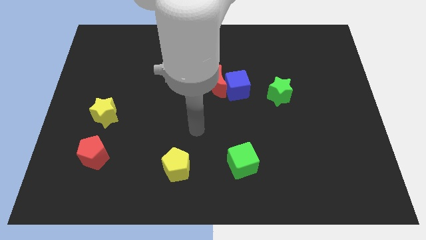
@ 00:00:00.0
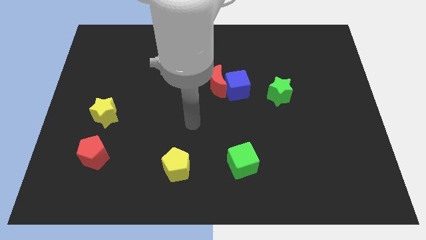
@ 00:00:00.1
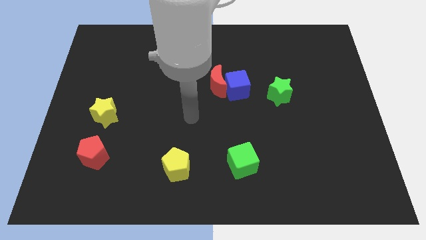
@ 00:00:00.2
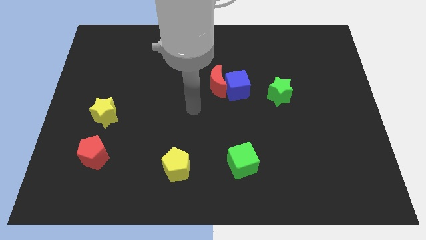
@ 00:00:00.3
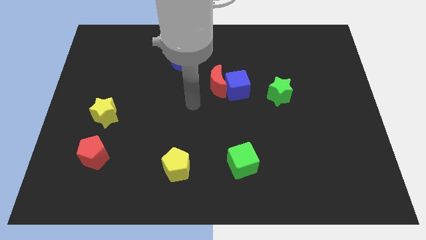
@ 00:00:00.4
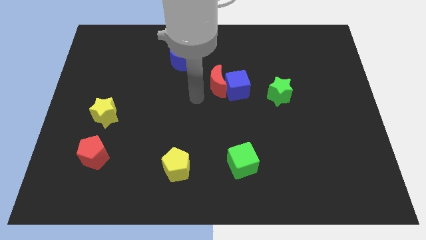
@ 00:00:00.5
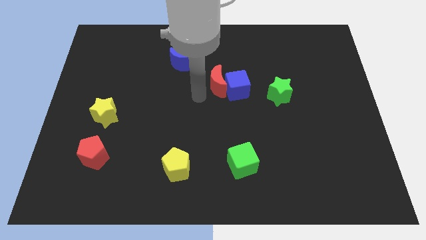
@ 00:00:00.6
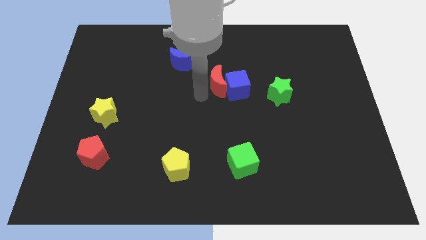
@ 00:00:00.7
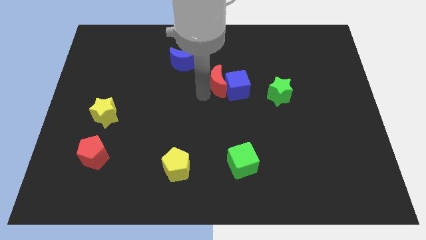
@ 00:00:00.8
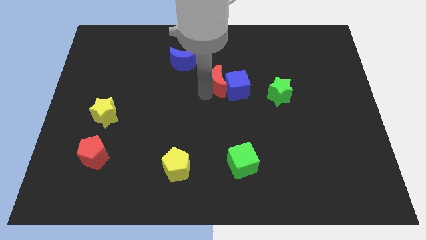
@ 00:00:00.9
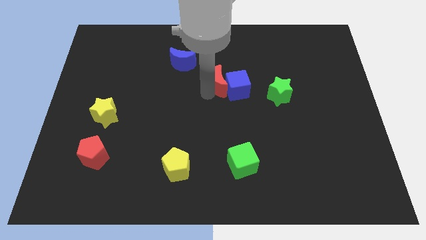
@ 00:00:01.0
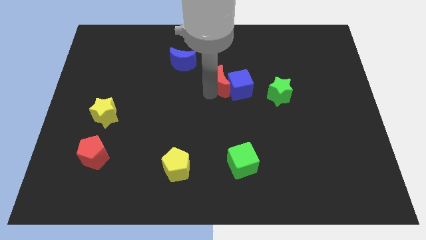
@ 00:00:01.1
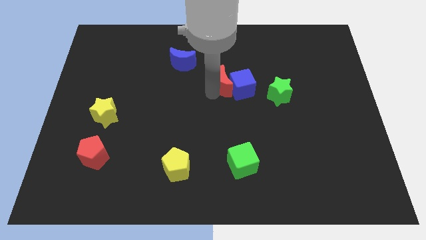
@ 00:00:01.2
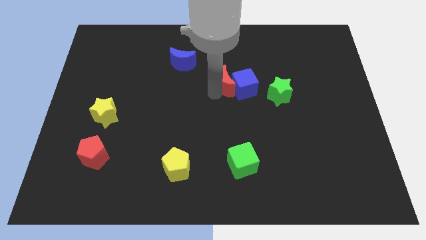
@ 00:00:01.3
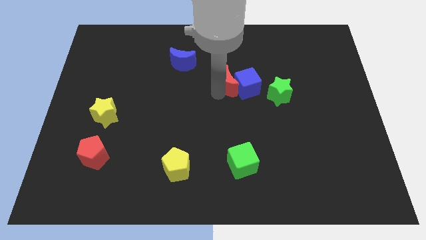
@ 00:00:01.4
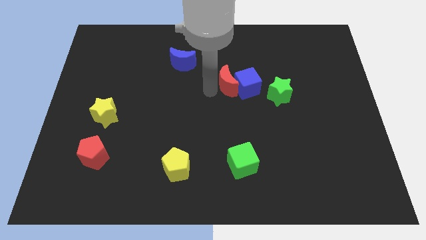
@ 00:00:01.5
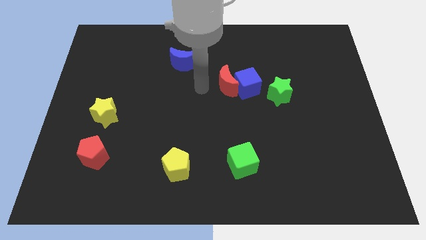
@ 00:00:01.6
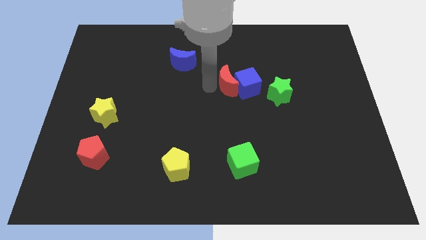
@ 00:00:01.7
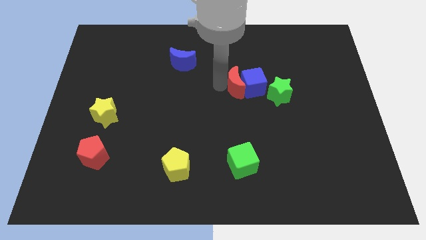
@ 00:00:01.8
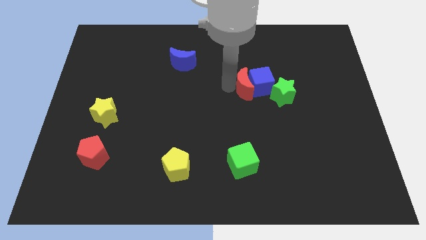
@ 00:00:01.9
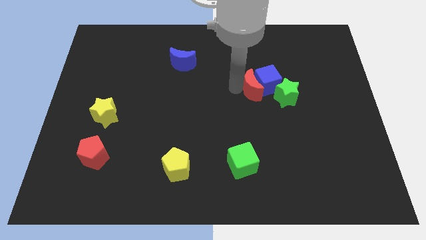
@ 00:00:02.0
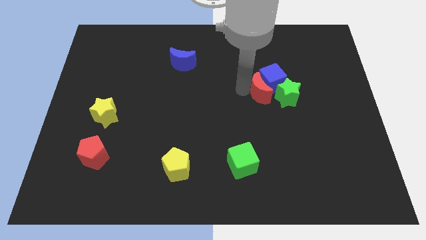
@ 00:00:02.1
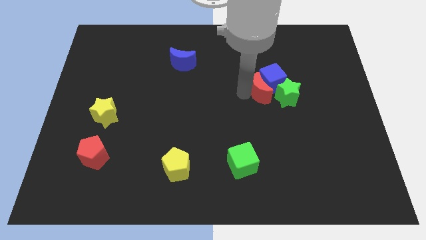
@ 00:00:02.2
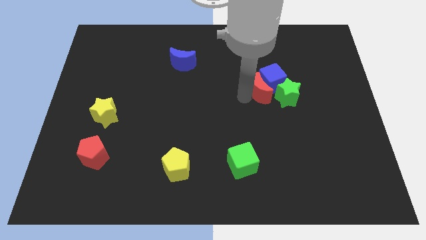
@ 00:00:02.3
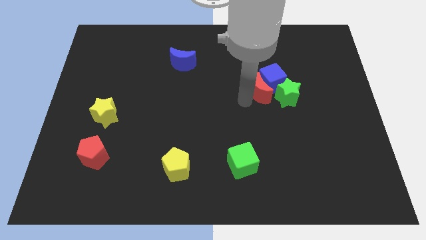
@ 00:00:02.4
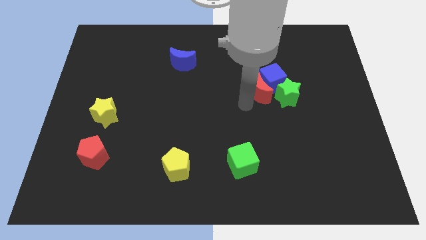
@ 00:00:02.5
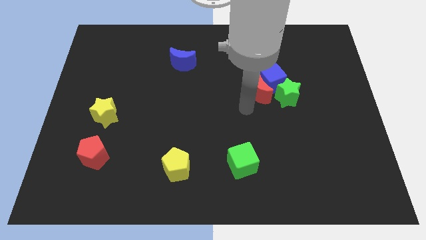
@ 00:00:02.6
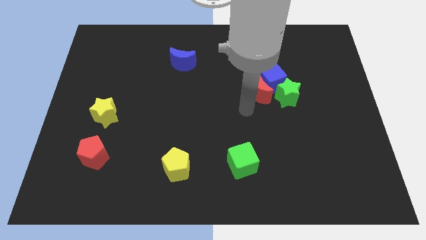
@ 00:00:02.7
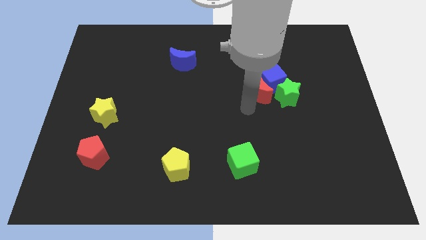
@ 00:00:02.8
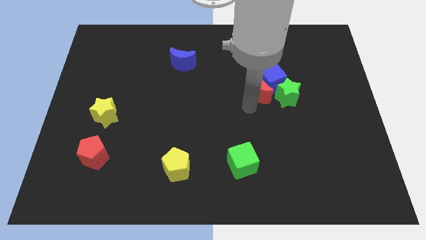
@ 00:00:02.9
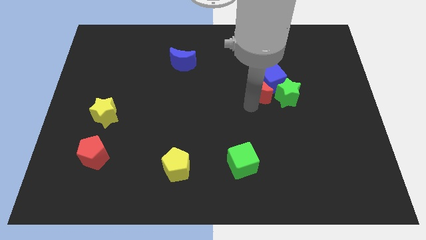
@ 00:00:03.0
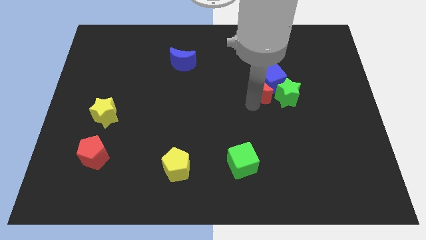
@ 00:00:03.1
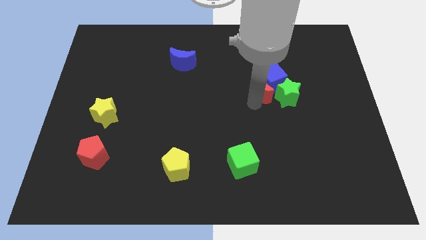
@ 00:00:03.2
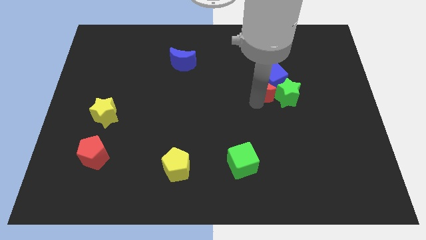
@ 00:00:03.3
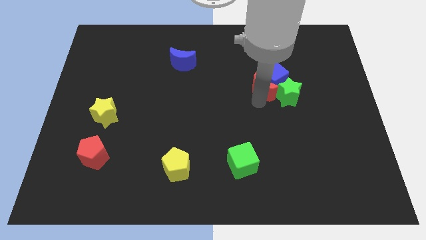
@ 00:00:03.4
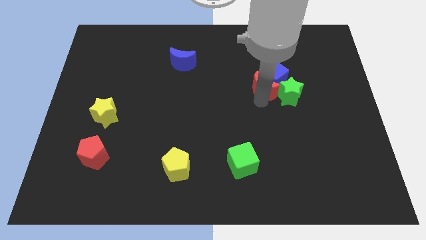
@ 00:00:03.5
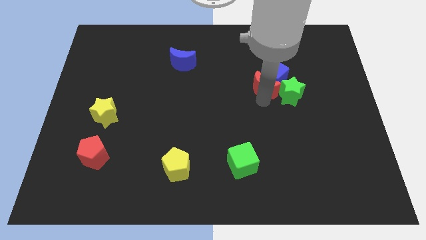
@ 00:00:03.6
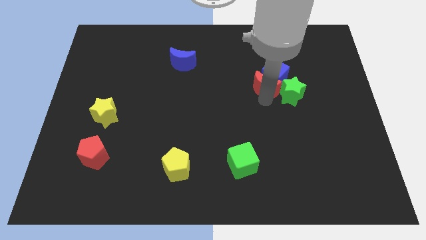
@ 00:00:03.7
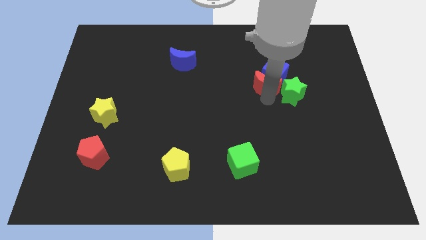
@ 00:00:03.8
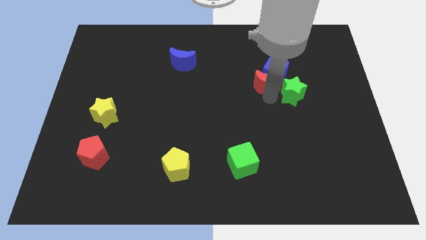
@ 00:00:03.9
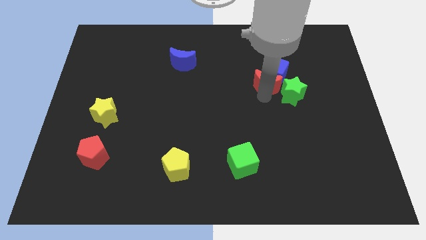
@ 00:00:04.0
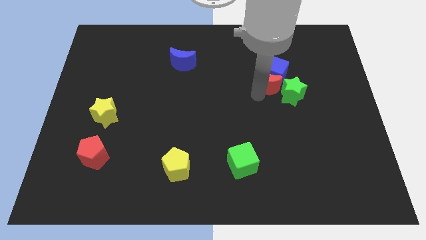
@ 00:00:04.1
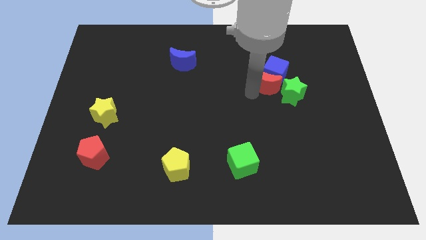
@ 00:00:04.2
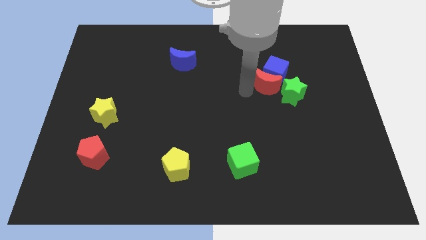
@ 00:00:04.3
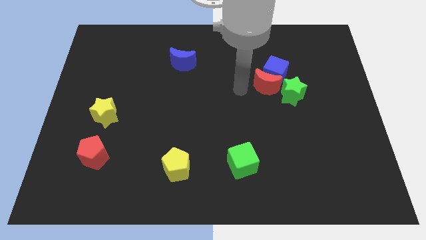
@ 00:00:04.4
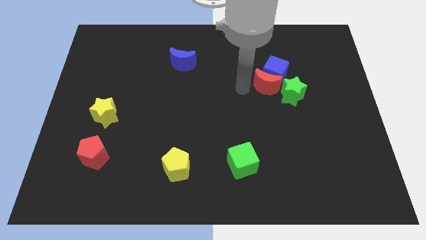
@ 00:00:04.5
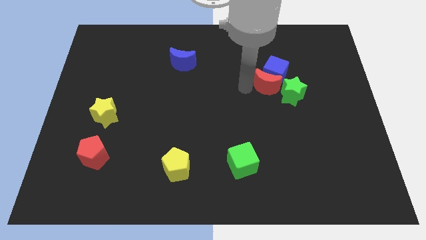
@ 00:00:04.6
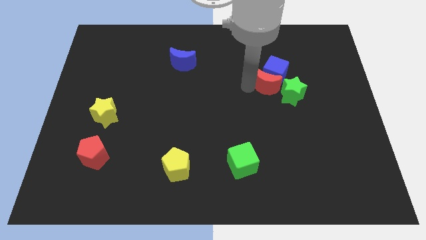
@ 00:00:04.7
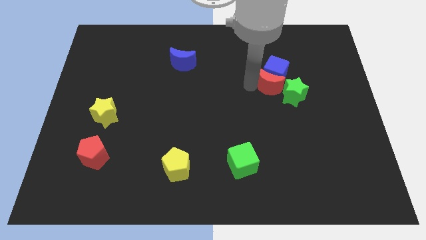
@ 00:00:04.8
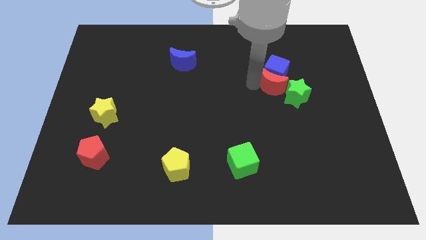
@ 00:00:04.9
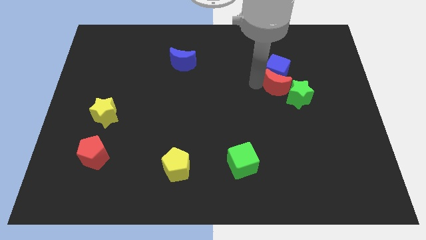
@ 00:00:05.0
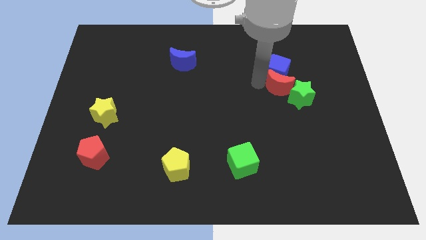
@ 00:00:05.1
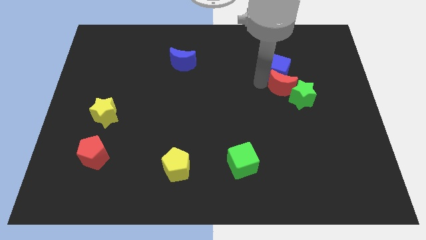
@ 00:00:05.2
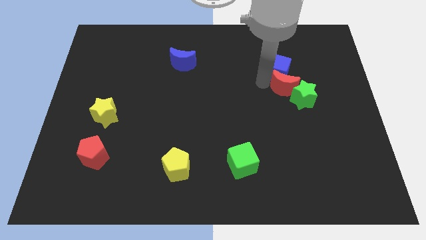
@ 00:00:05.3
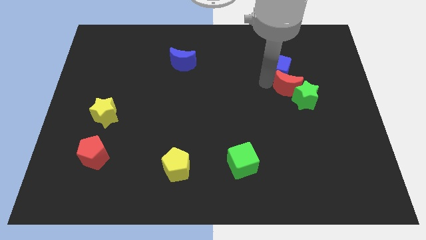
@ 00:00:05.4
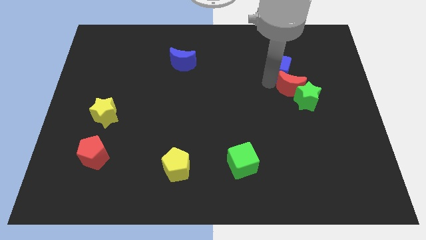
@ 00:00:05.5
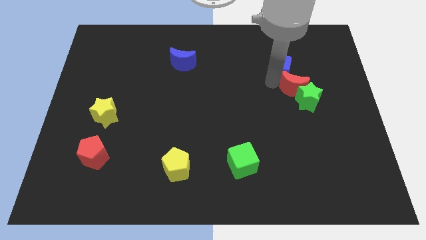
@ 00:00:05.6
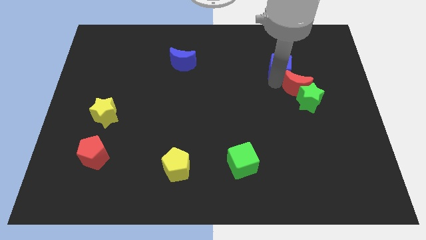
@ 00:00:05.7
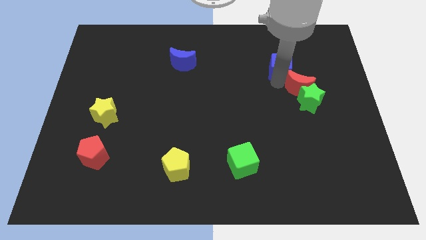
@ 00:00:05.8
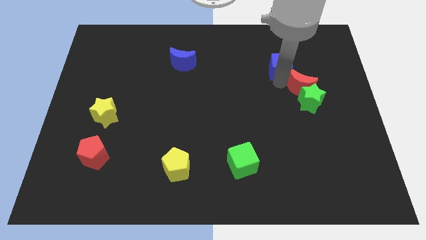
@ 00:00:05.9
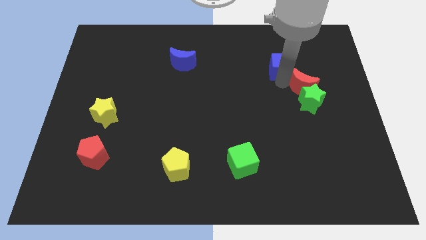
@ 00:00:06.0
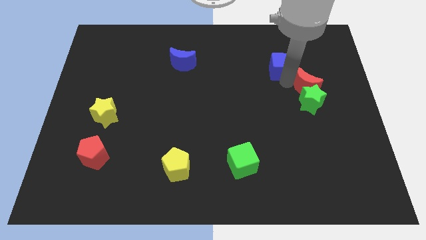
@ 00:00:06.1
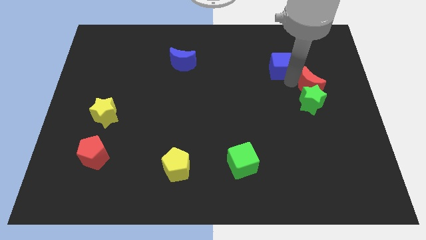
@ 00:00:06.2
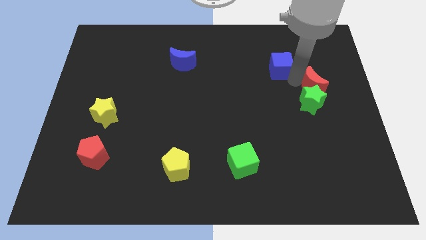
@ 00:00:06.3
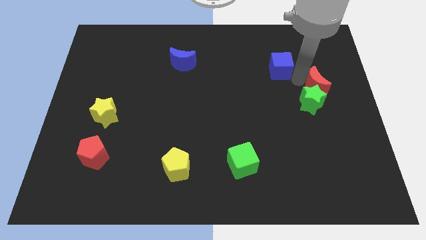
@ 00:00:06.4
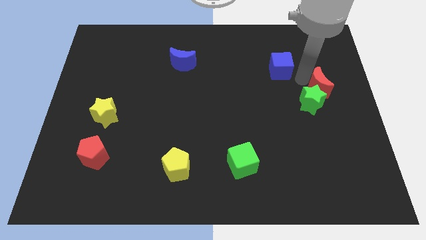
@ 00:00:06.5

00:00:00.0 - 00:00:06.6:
move the red moon to the right side
